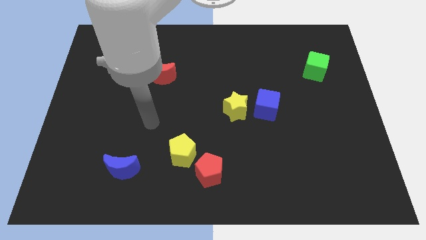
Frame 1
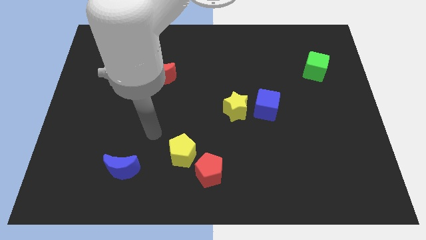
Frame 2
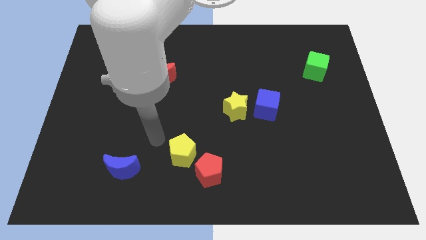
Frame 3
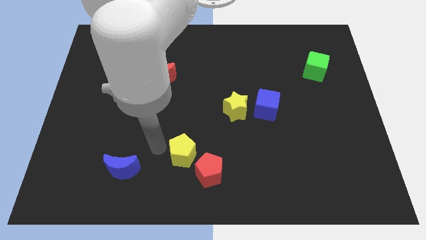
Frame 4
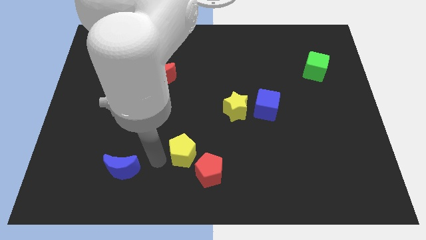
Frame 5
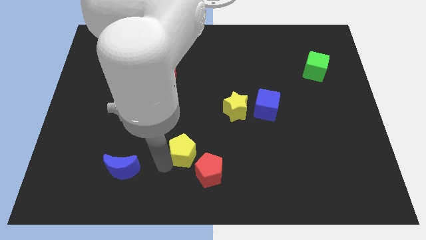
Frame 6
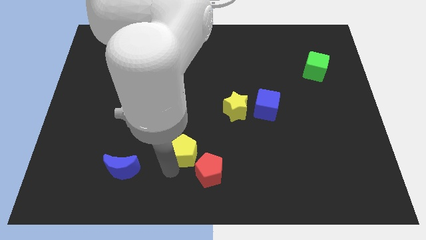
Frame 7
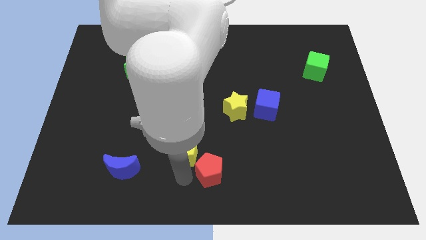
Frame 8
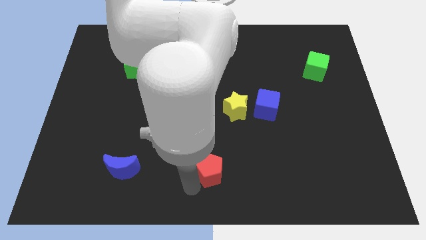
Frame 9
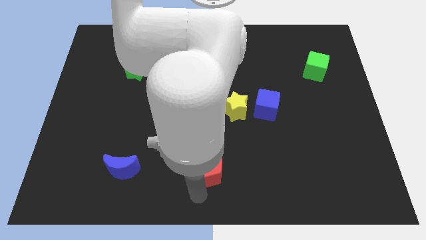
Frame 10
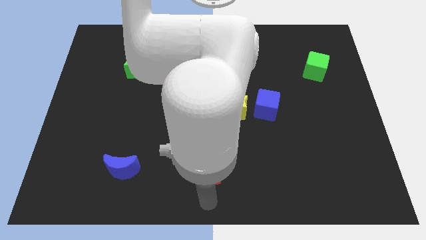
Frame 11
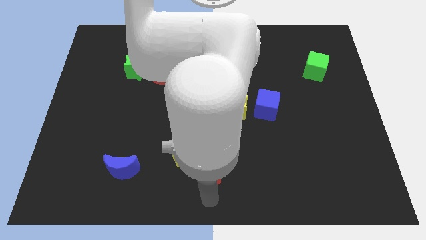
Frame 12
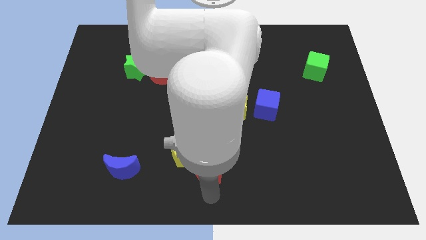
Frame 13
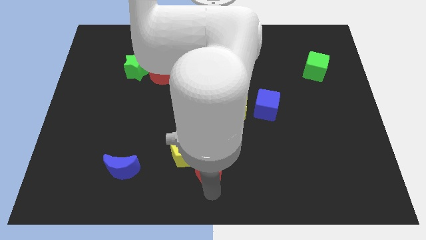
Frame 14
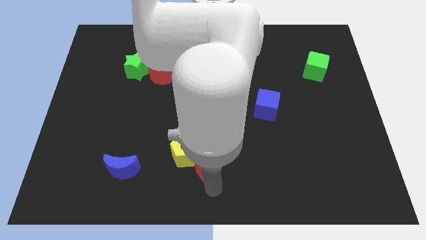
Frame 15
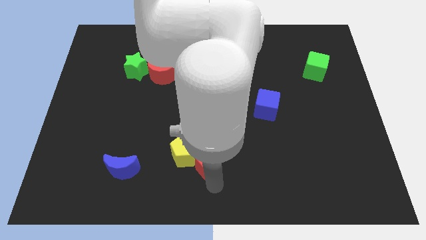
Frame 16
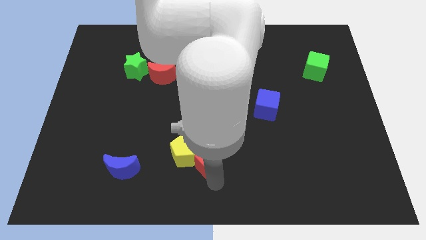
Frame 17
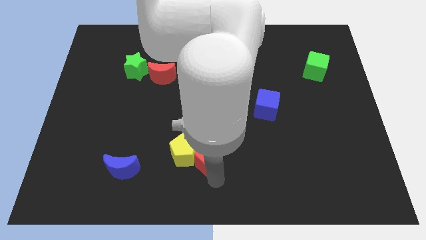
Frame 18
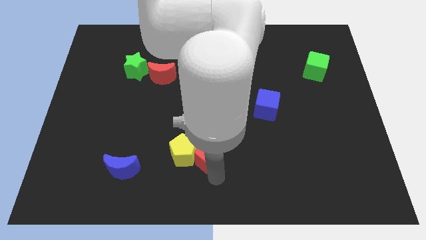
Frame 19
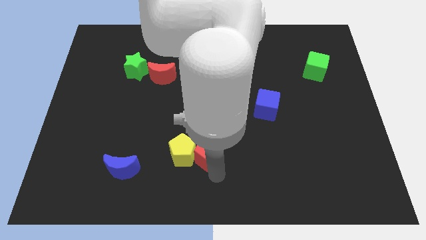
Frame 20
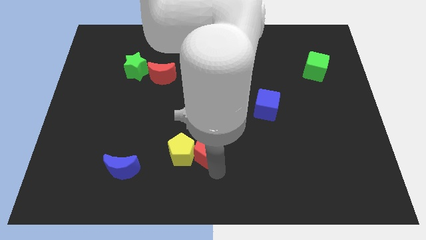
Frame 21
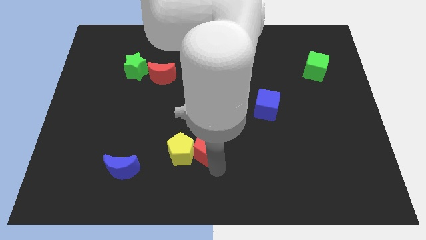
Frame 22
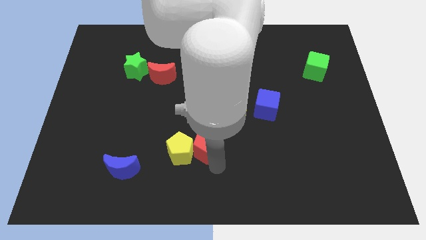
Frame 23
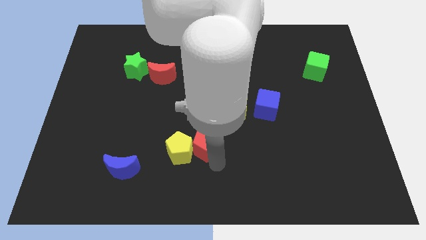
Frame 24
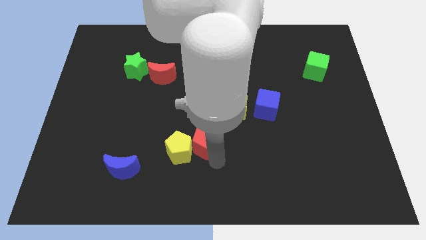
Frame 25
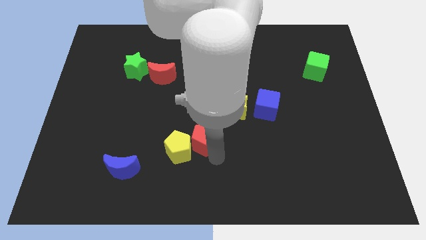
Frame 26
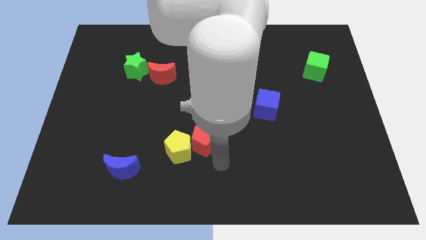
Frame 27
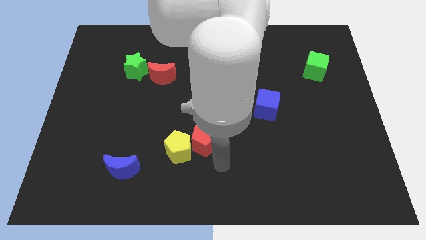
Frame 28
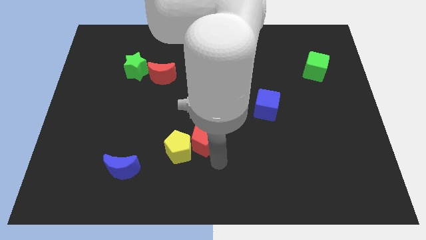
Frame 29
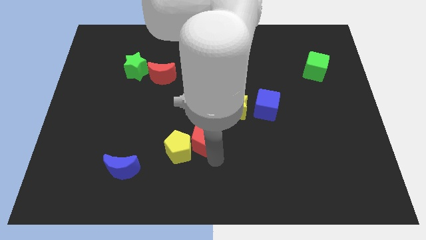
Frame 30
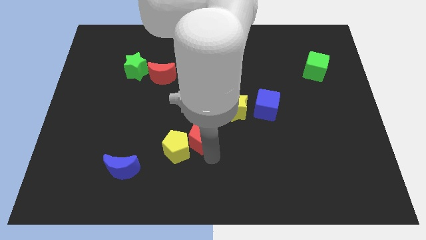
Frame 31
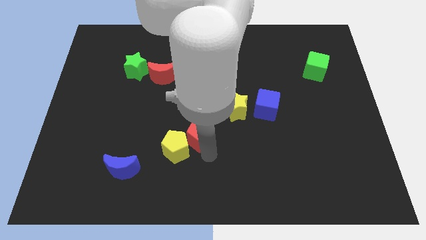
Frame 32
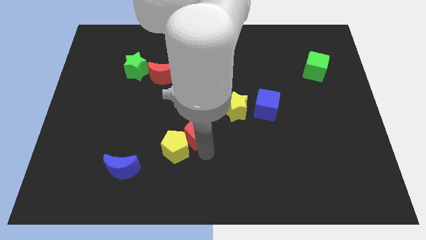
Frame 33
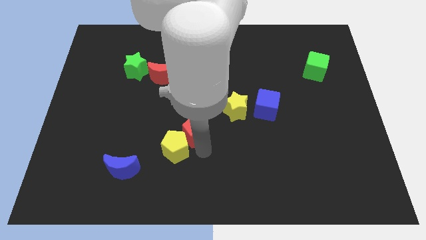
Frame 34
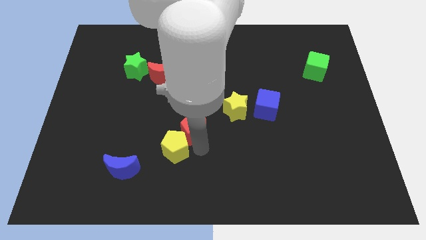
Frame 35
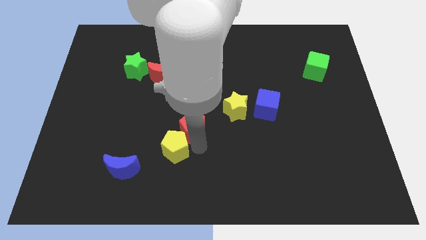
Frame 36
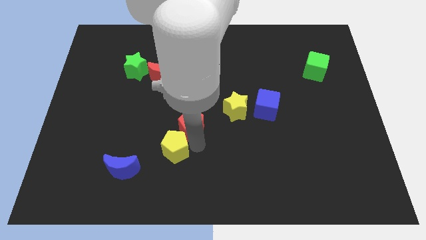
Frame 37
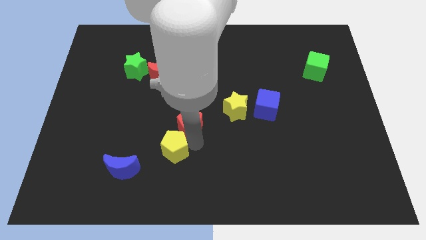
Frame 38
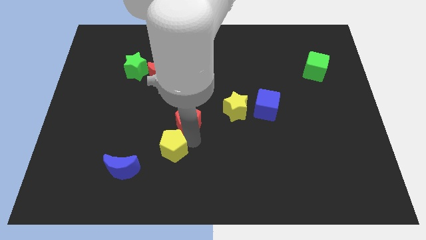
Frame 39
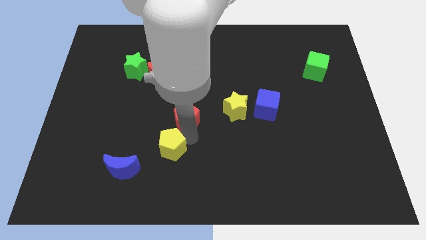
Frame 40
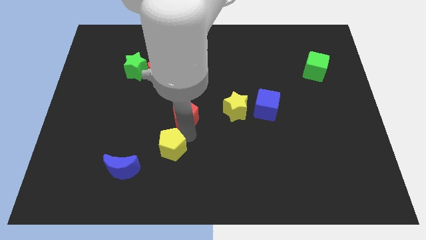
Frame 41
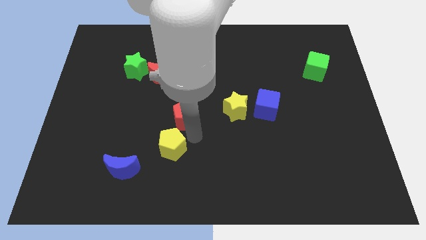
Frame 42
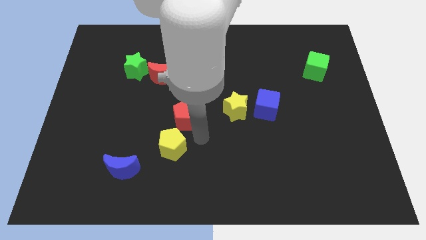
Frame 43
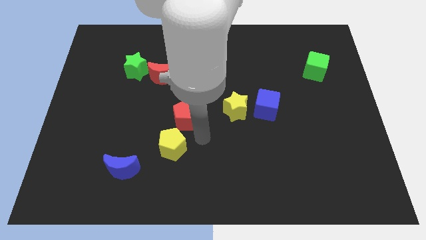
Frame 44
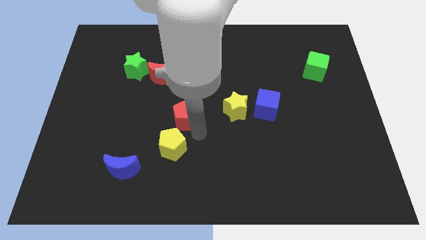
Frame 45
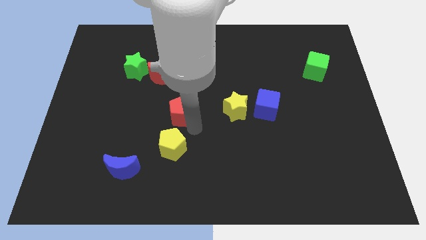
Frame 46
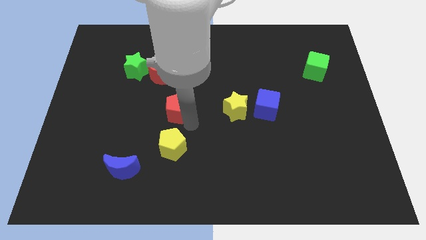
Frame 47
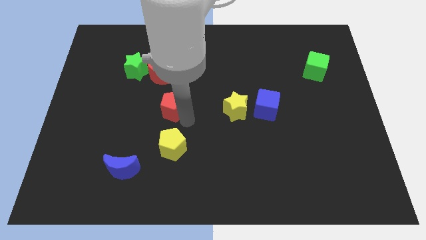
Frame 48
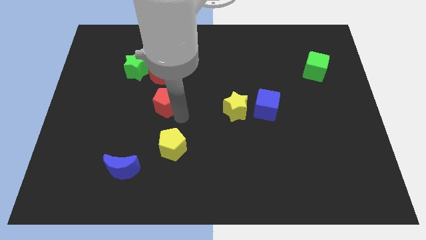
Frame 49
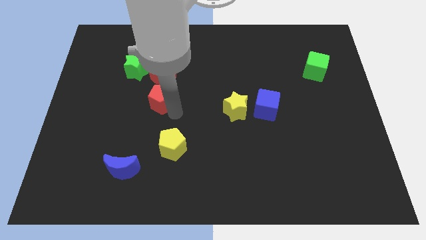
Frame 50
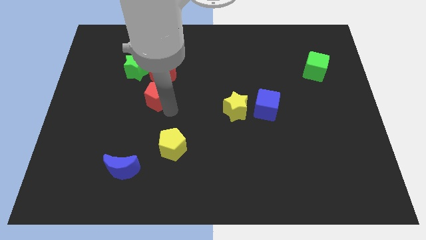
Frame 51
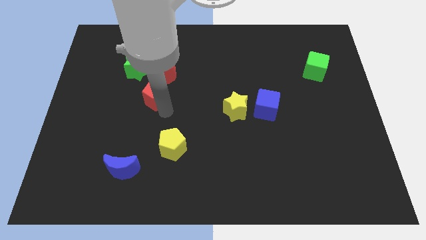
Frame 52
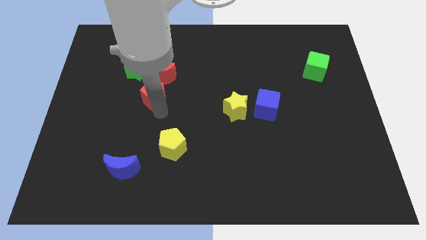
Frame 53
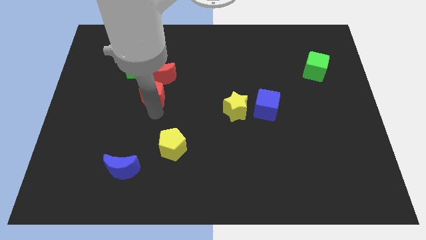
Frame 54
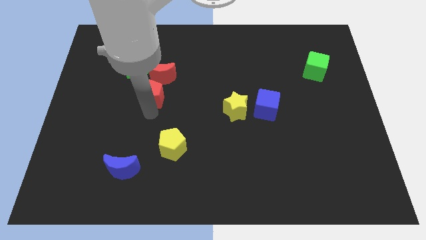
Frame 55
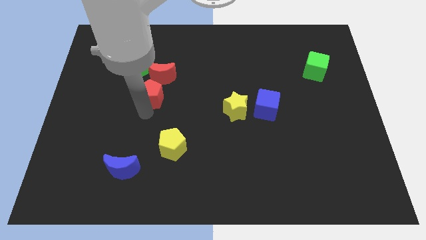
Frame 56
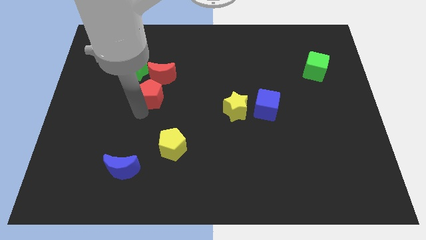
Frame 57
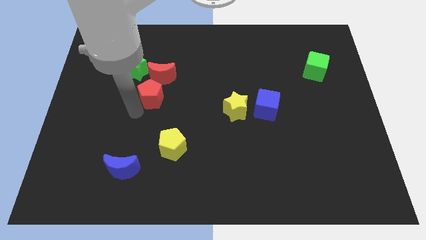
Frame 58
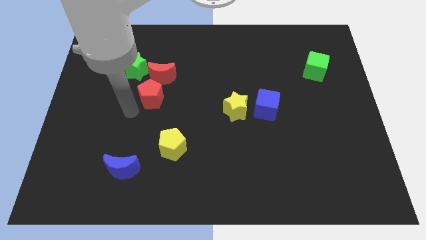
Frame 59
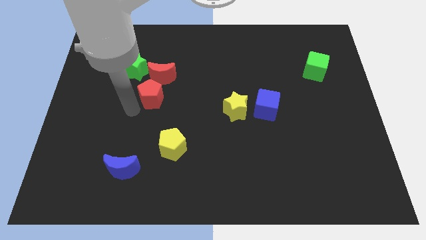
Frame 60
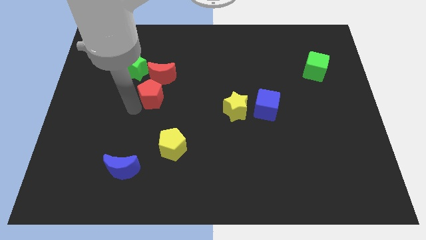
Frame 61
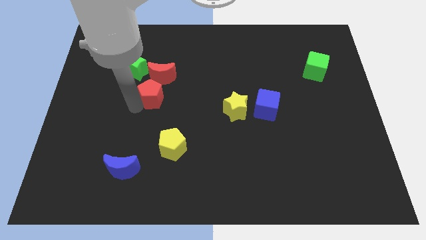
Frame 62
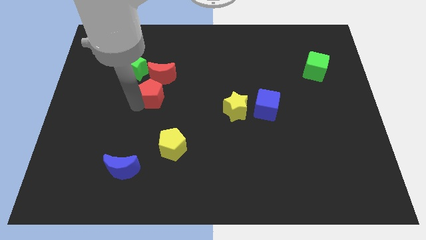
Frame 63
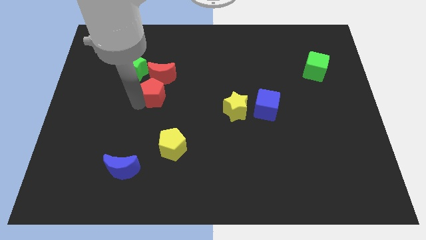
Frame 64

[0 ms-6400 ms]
push the red pentagon close to the red moon
